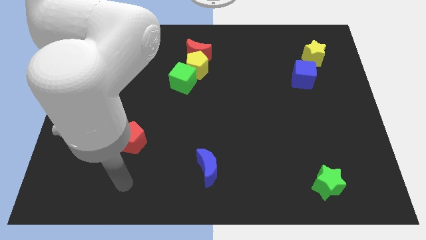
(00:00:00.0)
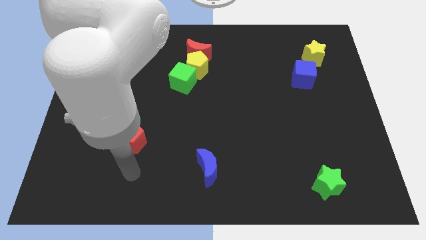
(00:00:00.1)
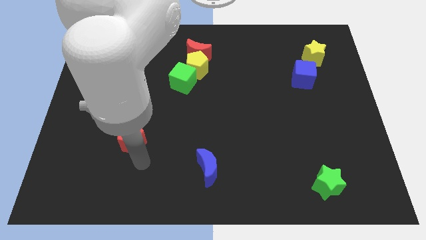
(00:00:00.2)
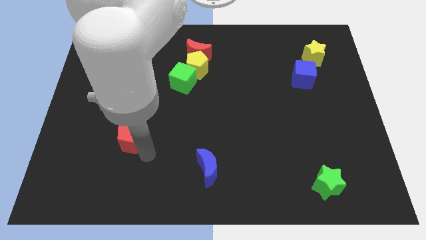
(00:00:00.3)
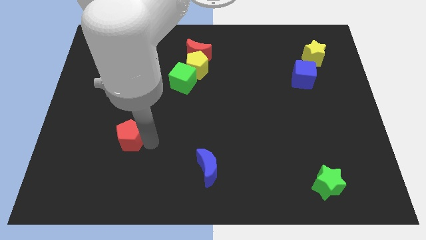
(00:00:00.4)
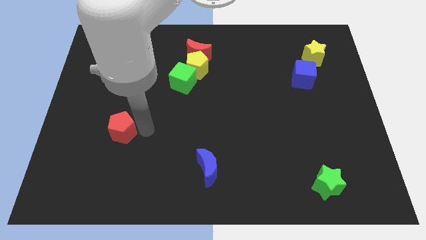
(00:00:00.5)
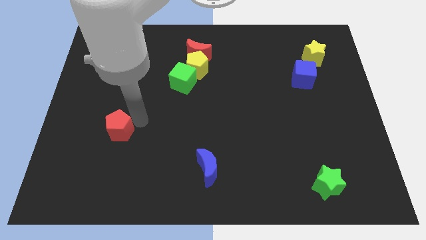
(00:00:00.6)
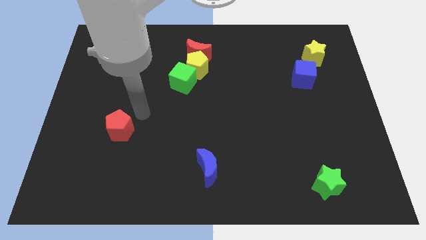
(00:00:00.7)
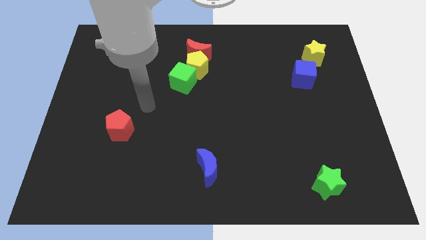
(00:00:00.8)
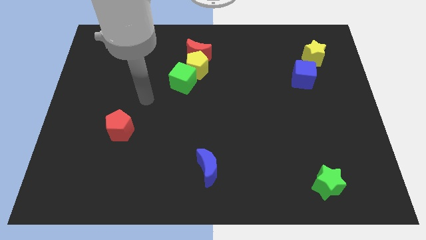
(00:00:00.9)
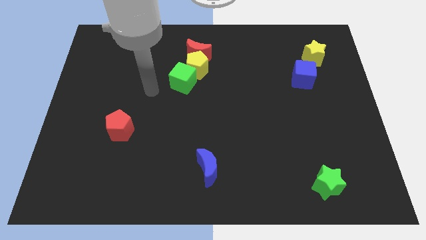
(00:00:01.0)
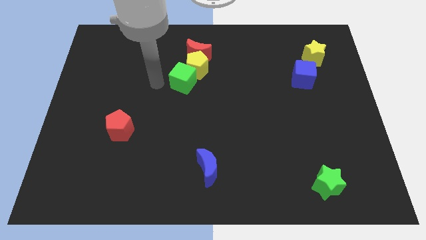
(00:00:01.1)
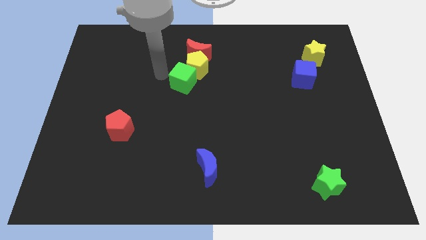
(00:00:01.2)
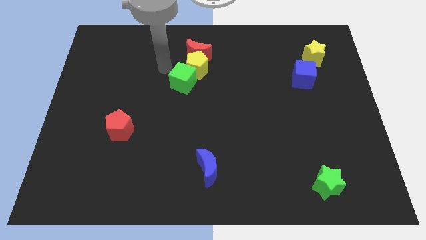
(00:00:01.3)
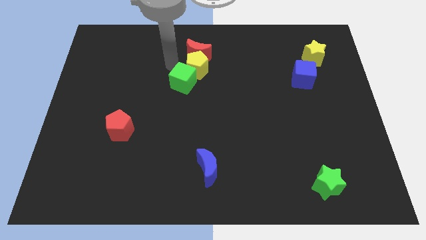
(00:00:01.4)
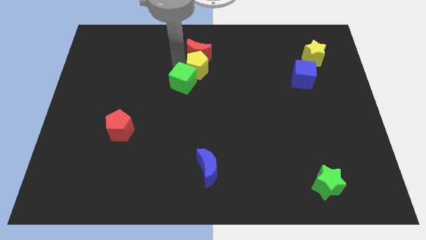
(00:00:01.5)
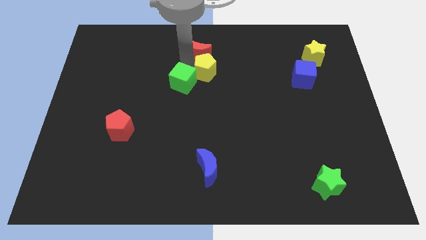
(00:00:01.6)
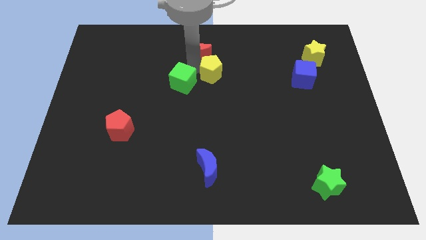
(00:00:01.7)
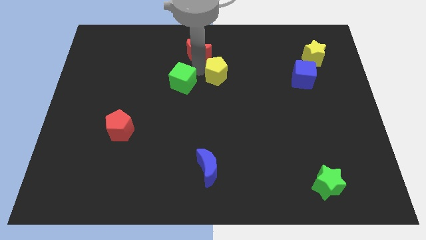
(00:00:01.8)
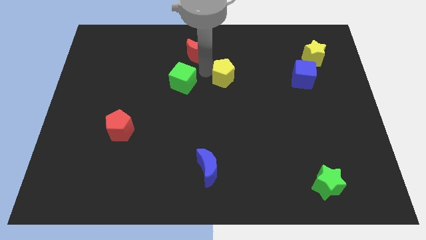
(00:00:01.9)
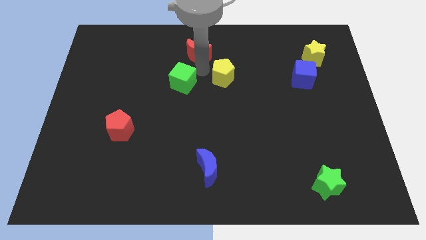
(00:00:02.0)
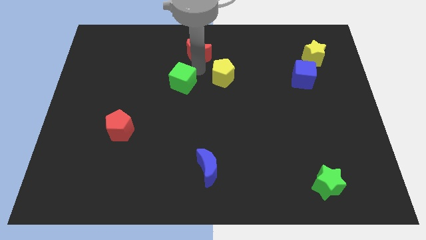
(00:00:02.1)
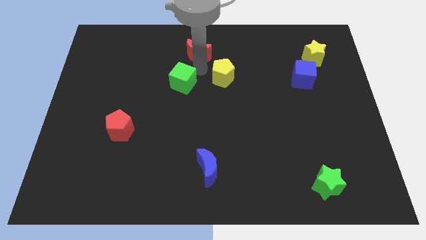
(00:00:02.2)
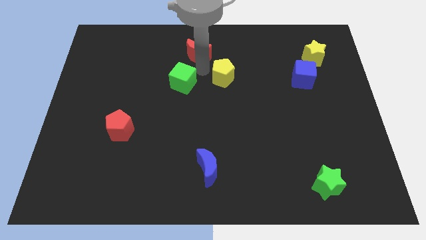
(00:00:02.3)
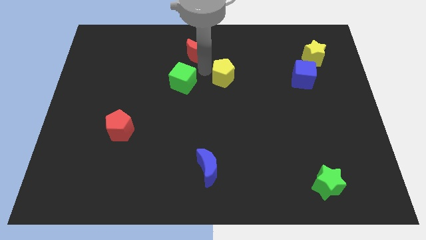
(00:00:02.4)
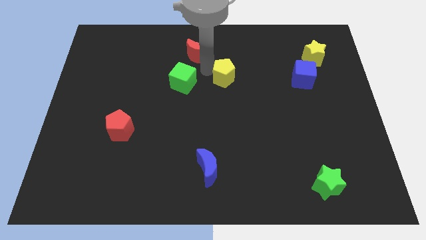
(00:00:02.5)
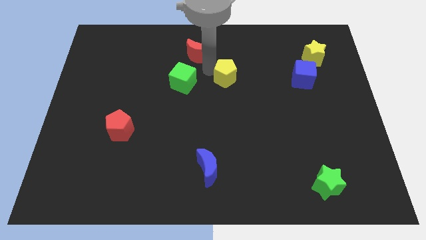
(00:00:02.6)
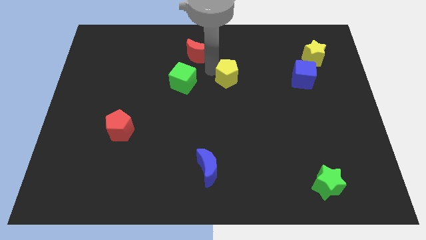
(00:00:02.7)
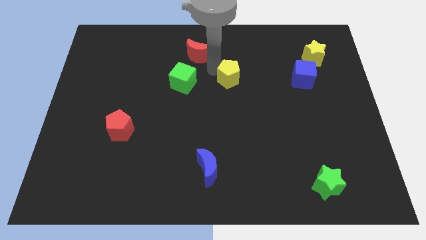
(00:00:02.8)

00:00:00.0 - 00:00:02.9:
separate the yellow pentagon from the red moon and green cube

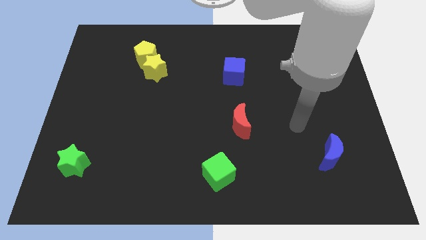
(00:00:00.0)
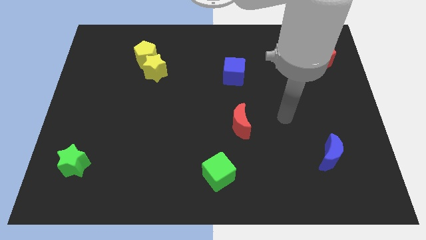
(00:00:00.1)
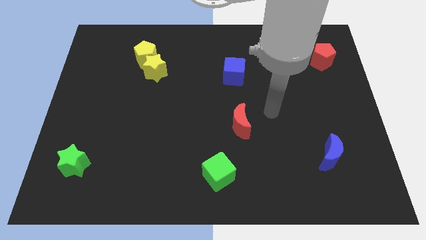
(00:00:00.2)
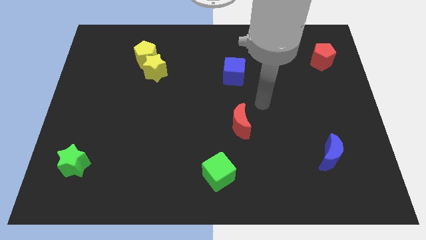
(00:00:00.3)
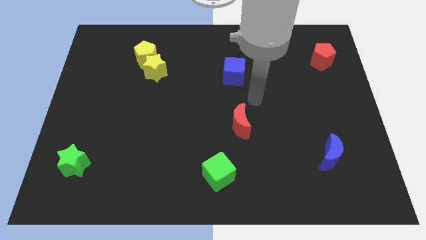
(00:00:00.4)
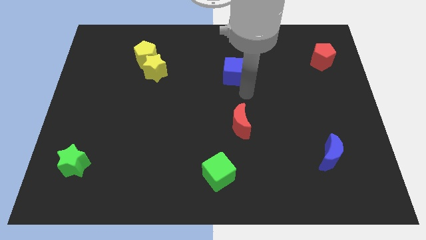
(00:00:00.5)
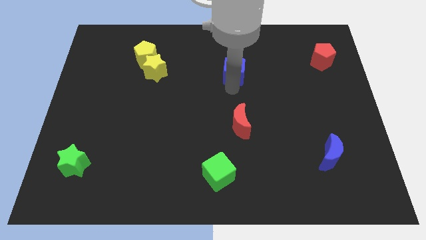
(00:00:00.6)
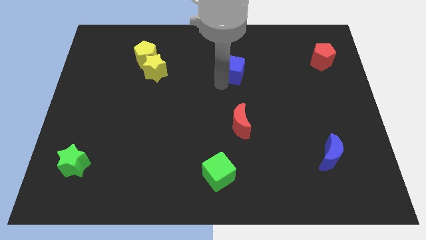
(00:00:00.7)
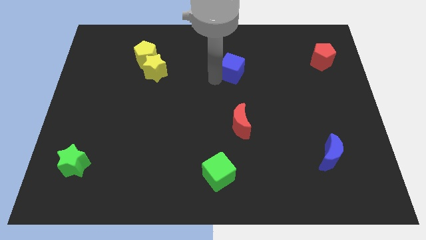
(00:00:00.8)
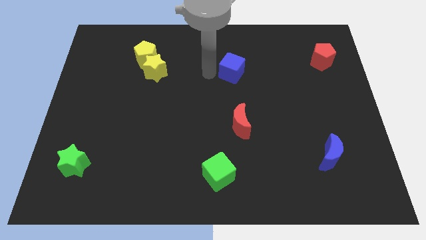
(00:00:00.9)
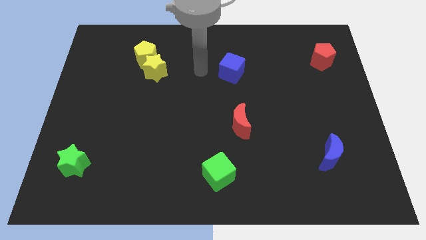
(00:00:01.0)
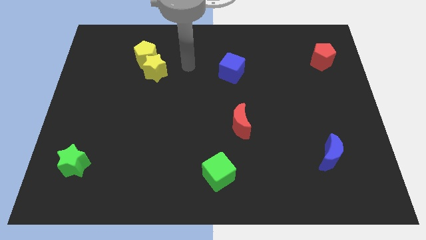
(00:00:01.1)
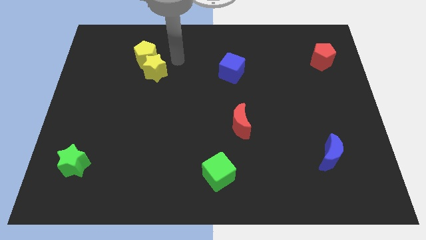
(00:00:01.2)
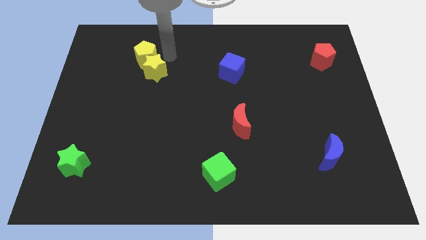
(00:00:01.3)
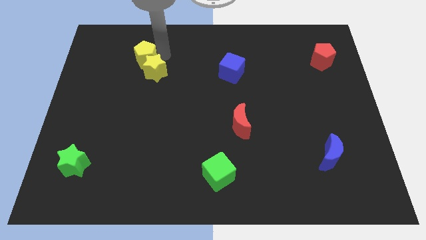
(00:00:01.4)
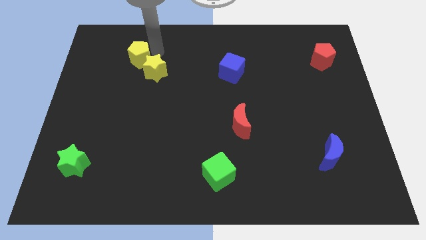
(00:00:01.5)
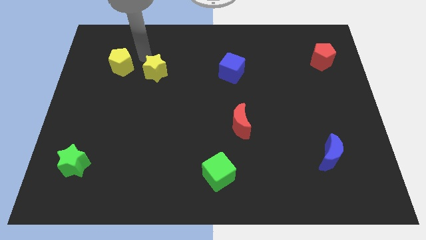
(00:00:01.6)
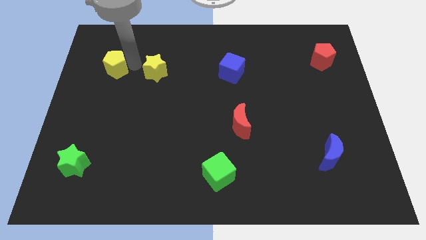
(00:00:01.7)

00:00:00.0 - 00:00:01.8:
move the yellow star away from the yellow pentagon

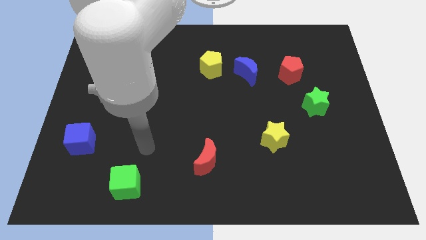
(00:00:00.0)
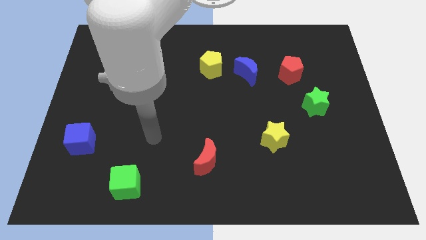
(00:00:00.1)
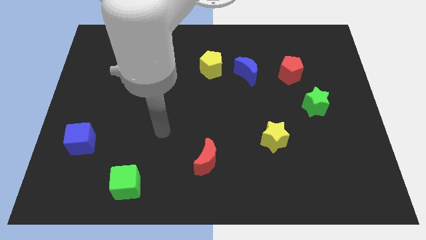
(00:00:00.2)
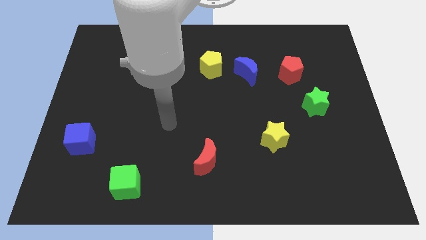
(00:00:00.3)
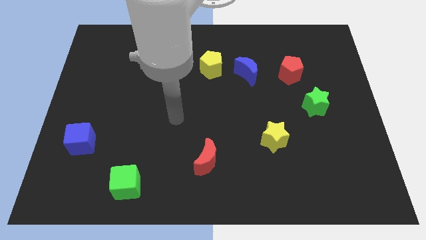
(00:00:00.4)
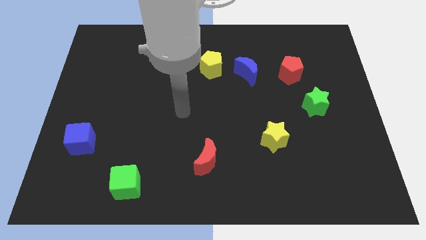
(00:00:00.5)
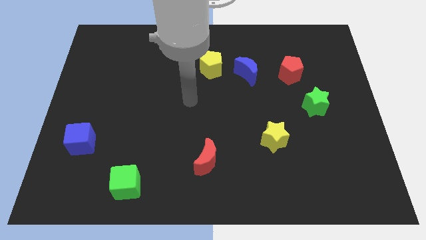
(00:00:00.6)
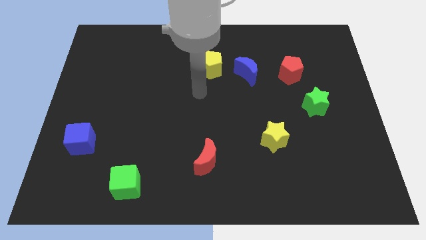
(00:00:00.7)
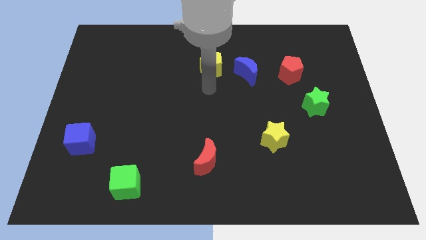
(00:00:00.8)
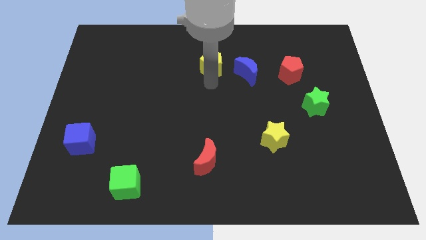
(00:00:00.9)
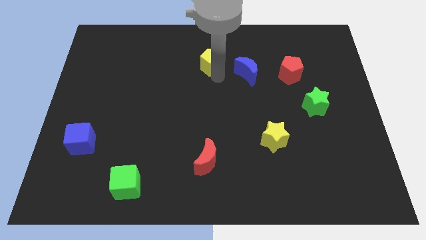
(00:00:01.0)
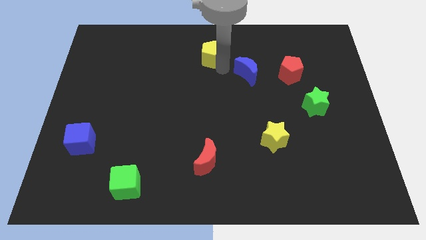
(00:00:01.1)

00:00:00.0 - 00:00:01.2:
separate the blue moon from the yellow pentagon

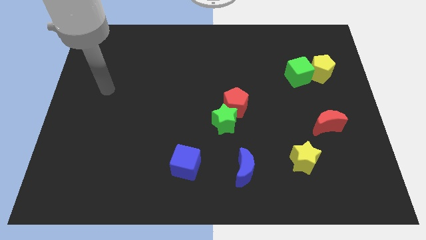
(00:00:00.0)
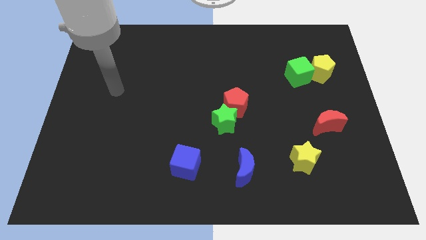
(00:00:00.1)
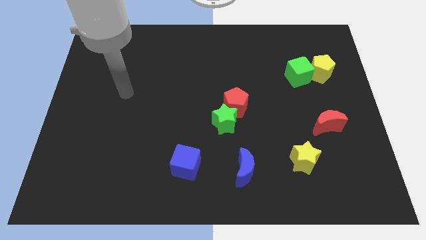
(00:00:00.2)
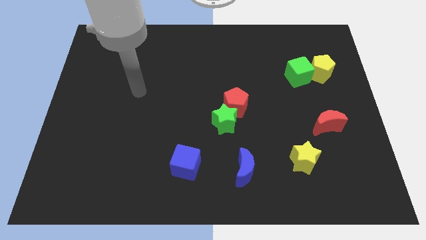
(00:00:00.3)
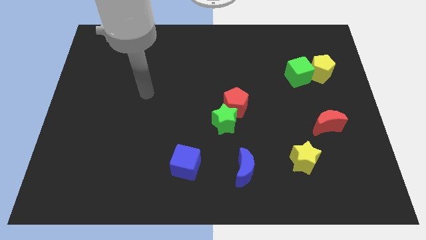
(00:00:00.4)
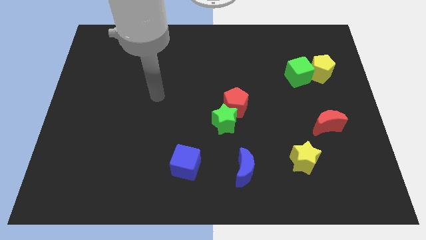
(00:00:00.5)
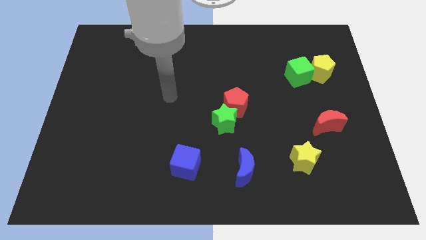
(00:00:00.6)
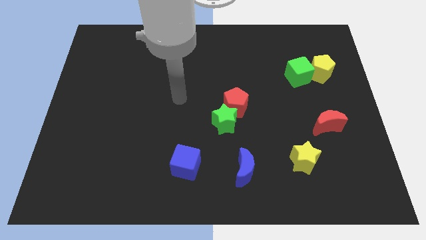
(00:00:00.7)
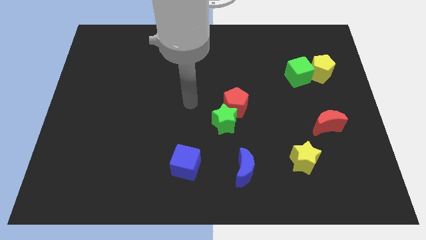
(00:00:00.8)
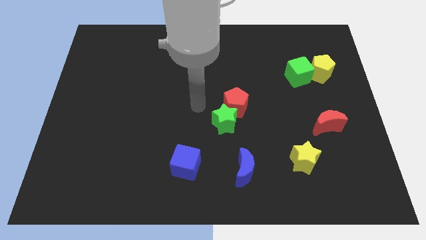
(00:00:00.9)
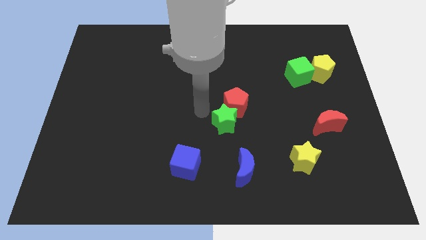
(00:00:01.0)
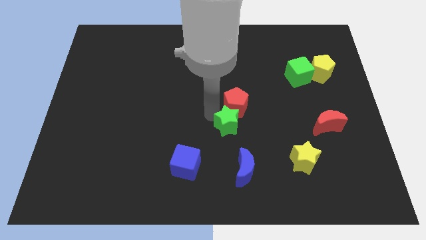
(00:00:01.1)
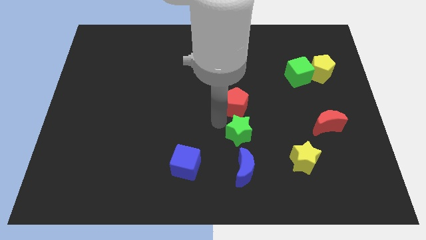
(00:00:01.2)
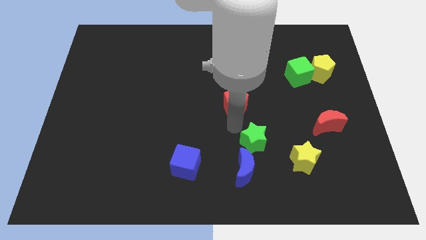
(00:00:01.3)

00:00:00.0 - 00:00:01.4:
pull the red pentagon apart from the green star

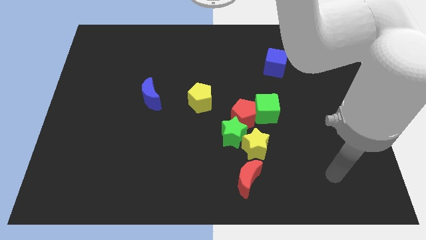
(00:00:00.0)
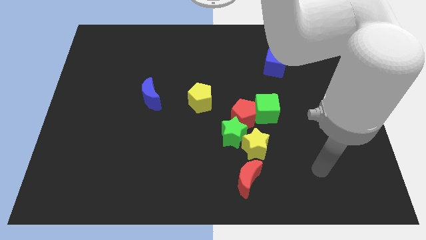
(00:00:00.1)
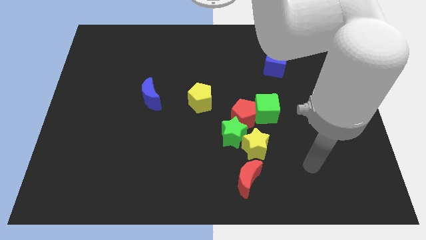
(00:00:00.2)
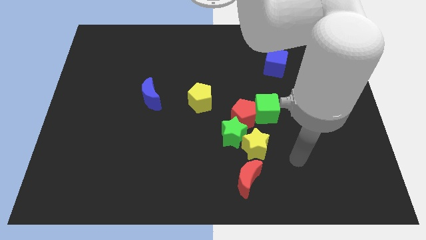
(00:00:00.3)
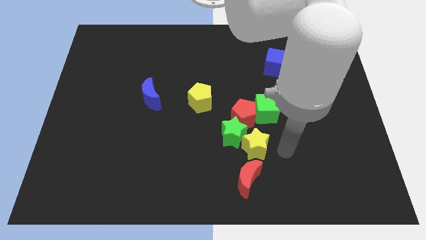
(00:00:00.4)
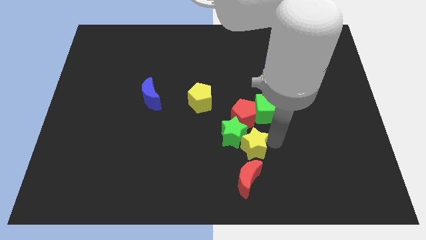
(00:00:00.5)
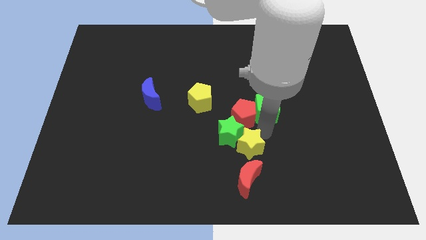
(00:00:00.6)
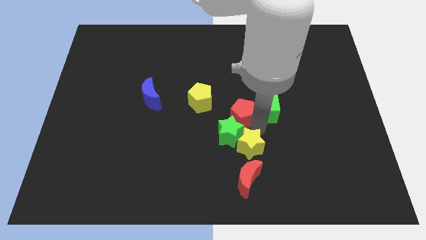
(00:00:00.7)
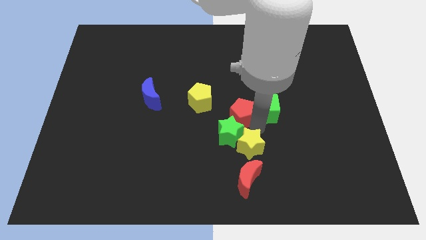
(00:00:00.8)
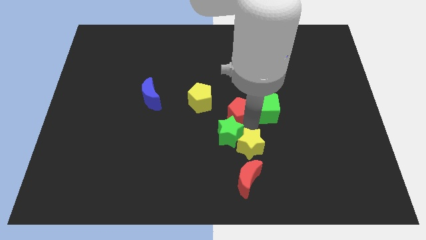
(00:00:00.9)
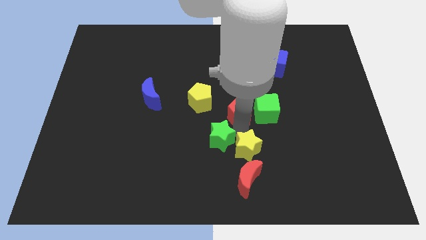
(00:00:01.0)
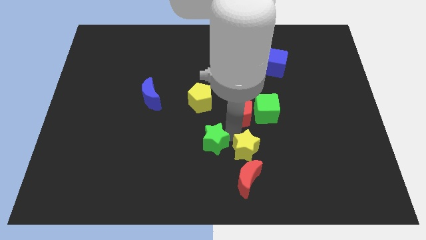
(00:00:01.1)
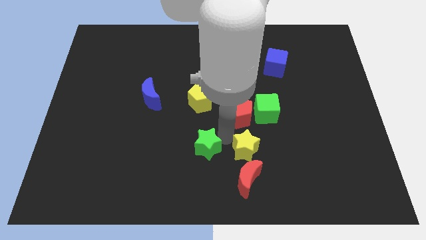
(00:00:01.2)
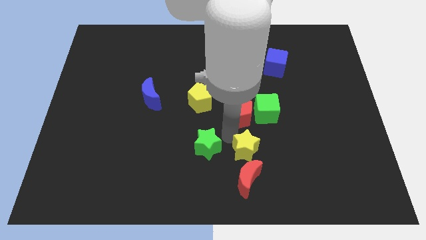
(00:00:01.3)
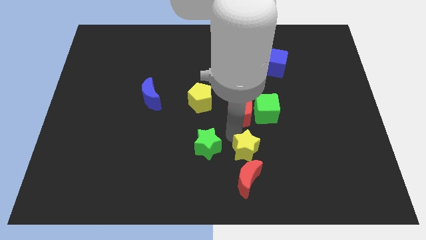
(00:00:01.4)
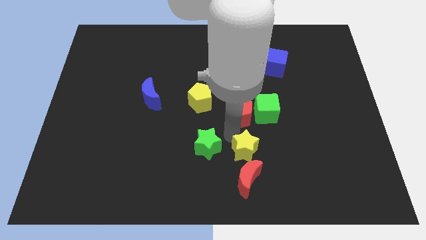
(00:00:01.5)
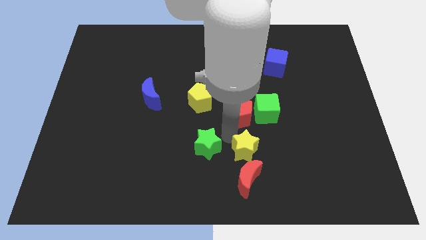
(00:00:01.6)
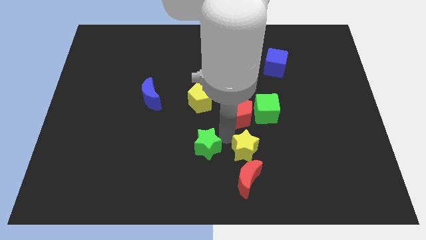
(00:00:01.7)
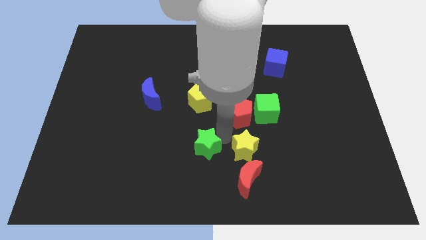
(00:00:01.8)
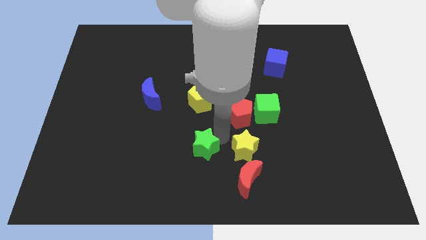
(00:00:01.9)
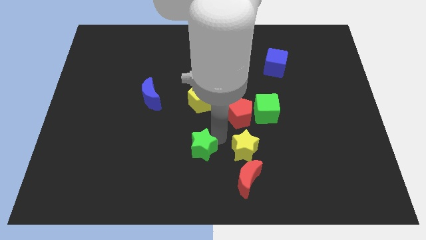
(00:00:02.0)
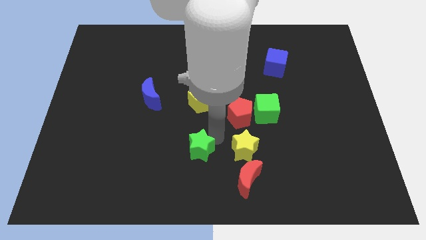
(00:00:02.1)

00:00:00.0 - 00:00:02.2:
move the green star away from the yellow star and red pentagon
